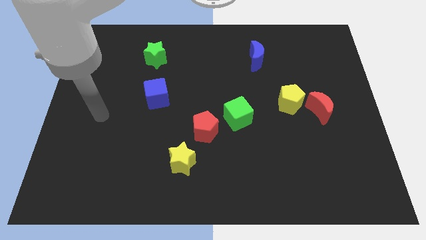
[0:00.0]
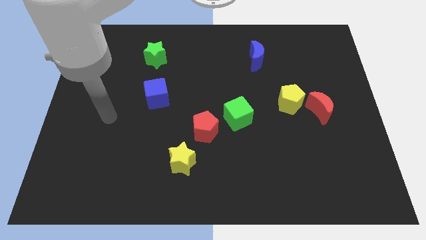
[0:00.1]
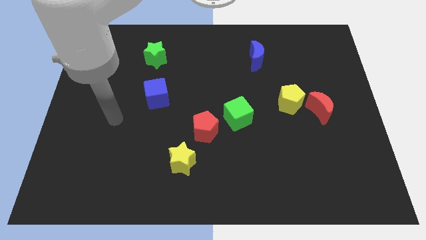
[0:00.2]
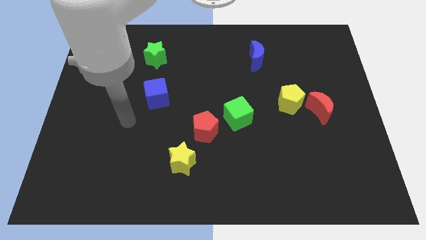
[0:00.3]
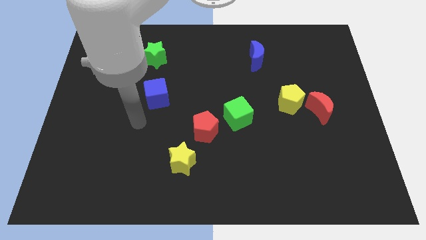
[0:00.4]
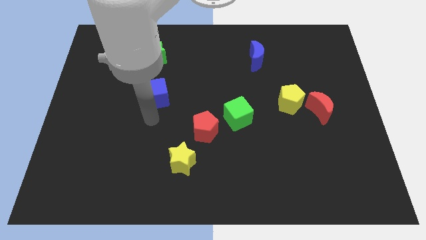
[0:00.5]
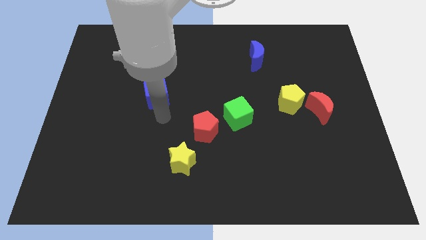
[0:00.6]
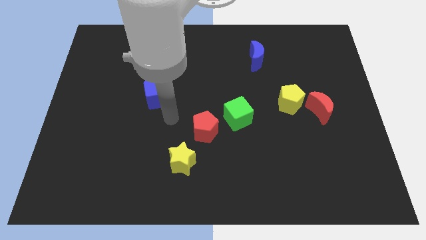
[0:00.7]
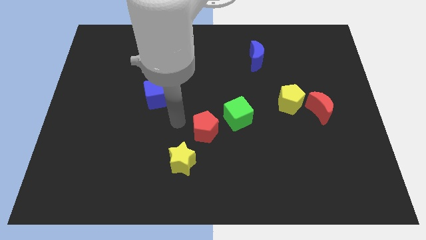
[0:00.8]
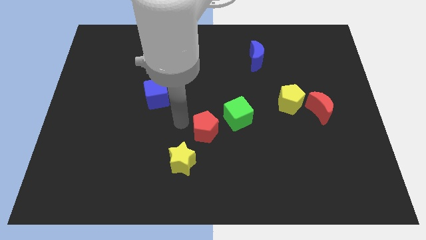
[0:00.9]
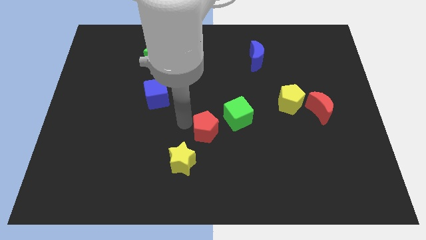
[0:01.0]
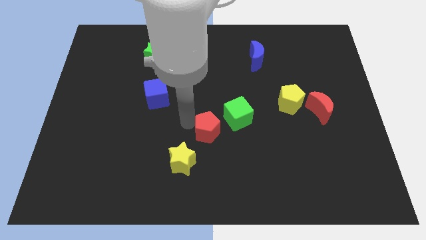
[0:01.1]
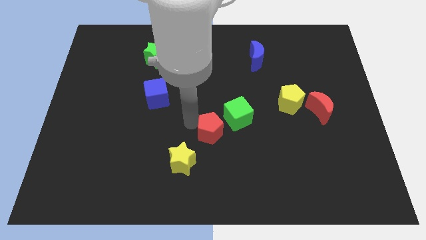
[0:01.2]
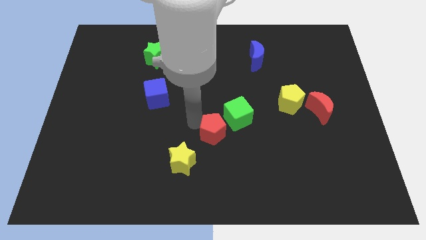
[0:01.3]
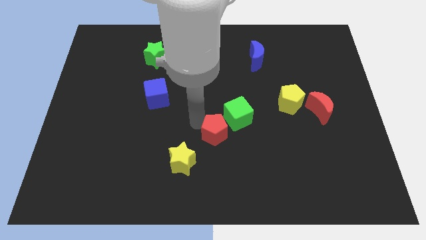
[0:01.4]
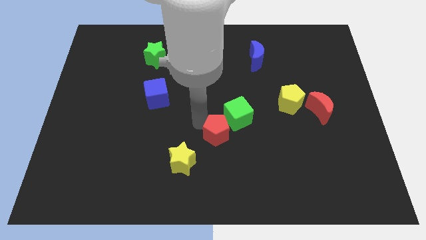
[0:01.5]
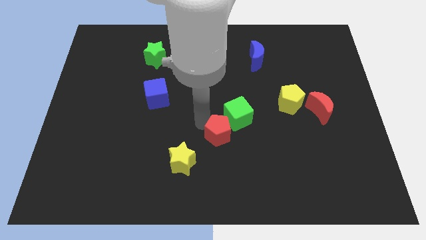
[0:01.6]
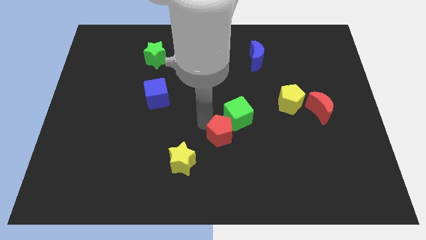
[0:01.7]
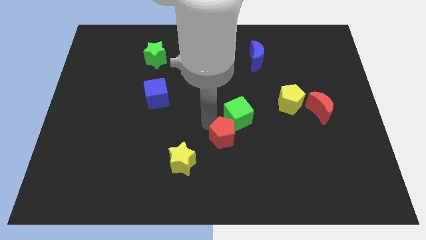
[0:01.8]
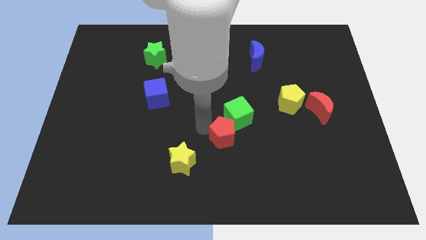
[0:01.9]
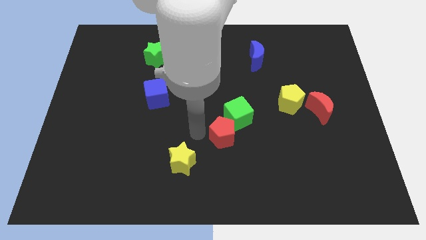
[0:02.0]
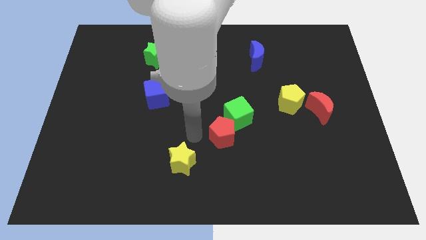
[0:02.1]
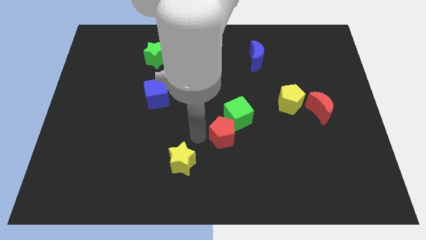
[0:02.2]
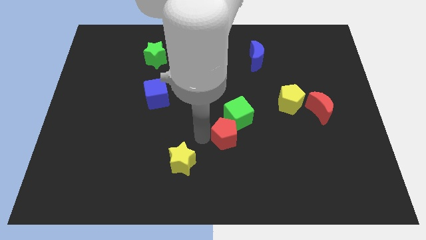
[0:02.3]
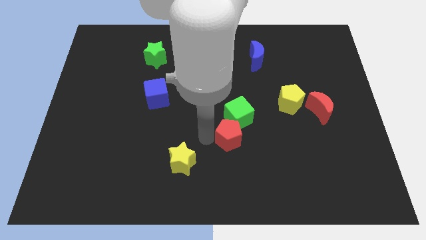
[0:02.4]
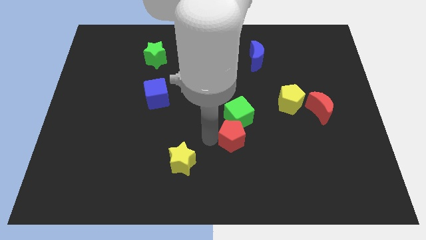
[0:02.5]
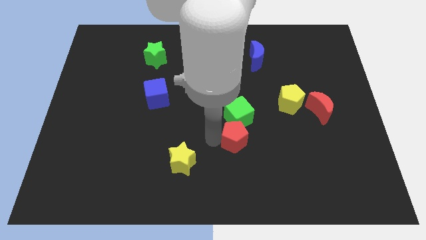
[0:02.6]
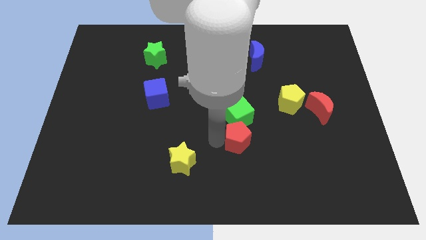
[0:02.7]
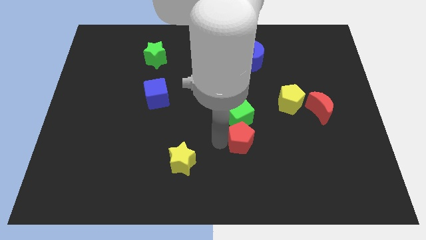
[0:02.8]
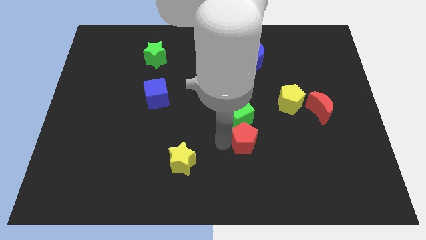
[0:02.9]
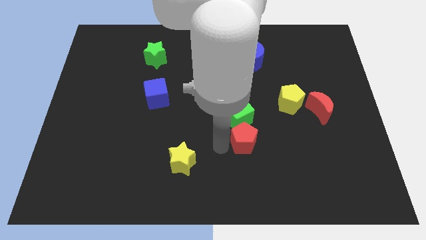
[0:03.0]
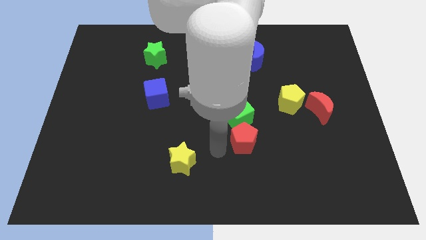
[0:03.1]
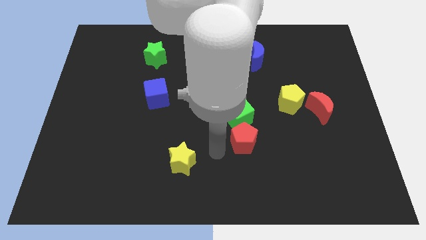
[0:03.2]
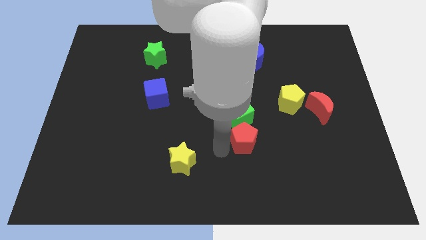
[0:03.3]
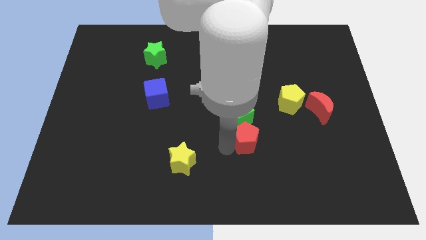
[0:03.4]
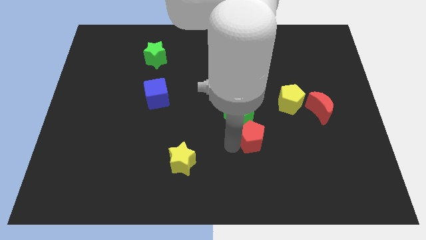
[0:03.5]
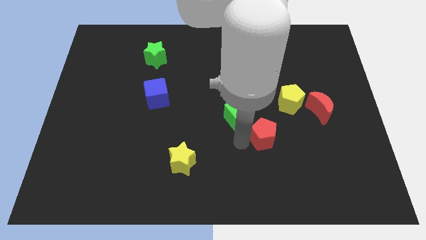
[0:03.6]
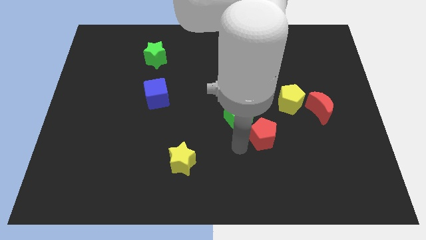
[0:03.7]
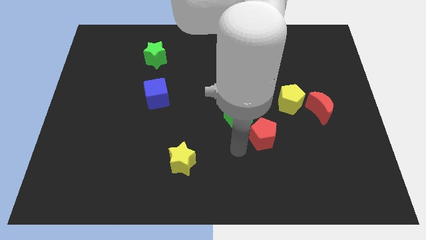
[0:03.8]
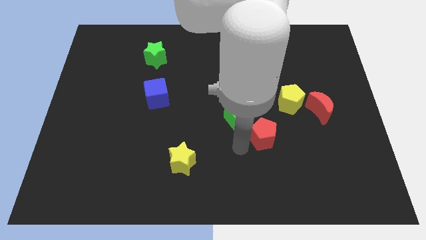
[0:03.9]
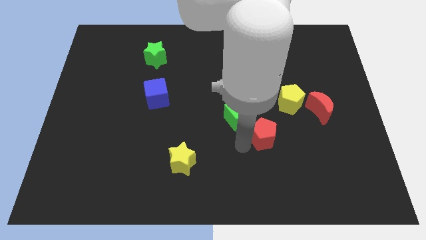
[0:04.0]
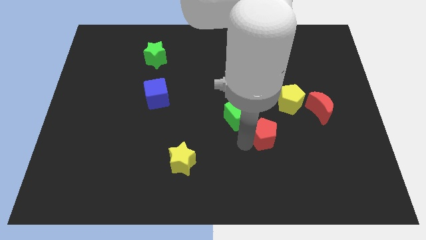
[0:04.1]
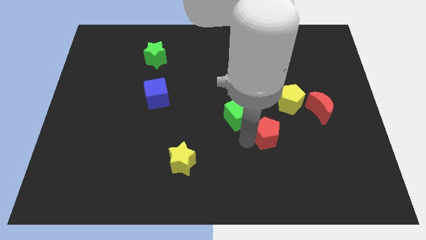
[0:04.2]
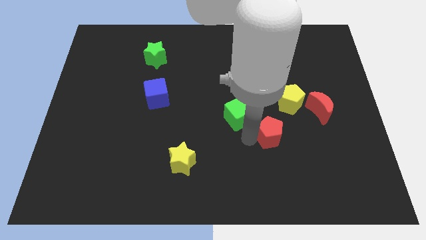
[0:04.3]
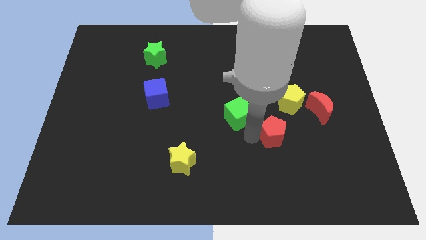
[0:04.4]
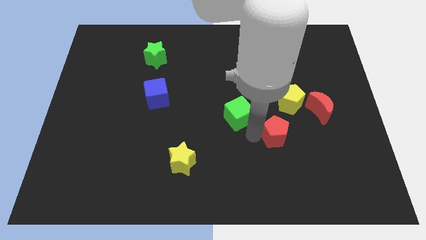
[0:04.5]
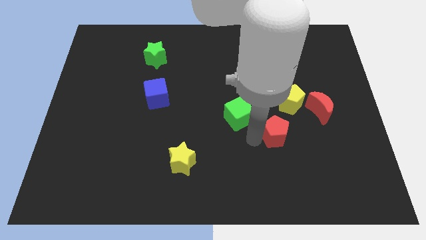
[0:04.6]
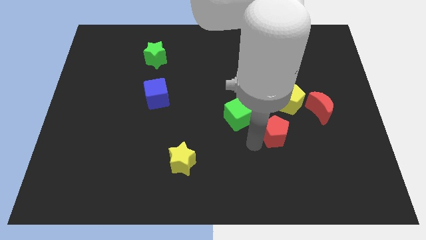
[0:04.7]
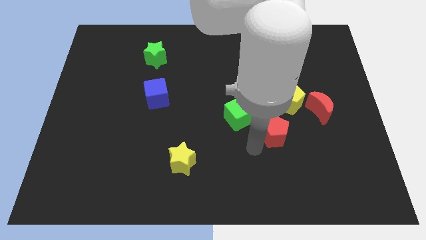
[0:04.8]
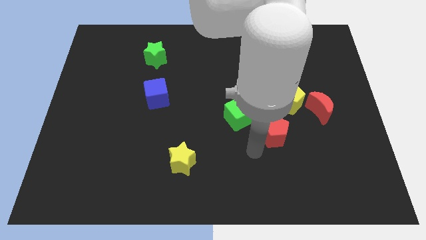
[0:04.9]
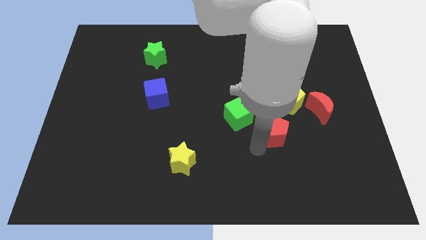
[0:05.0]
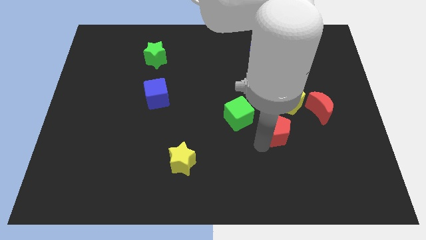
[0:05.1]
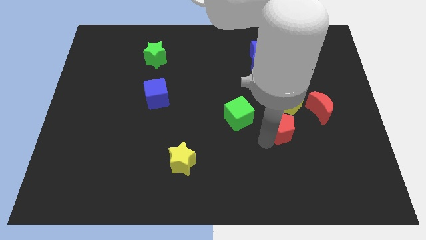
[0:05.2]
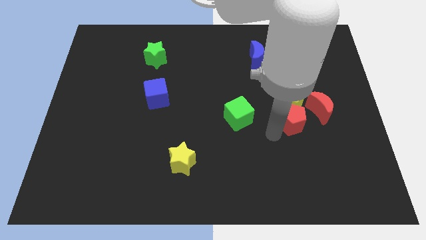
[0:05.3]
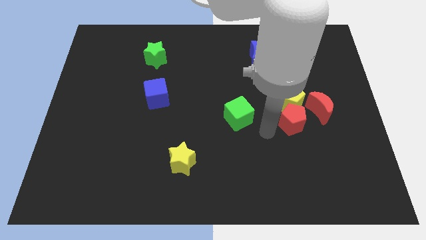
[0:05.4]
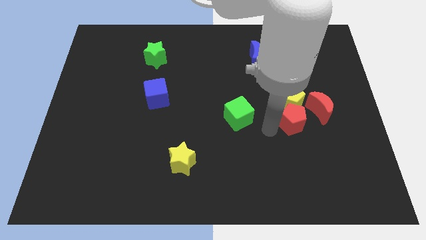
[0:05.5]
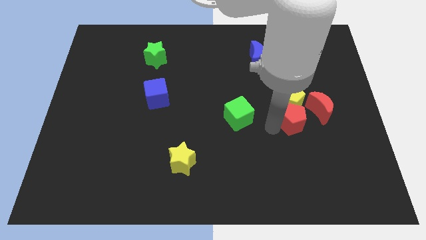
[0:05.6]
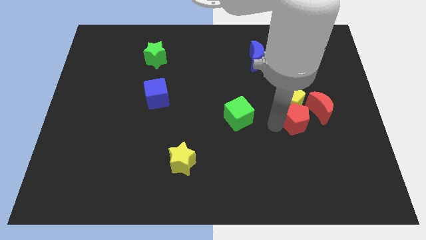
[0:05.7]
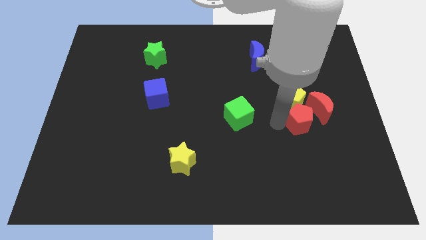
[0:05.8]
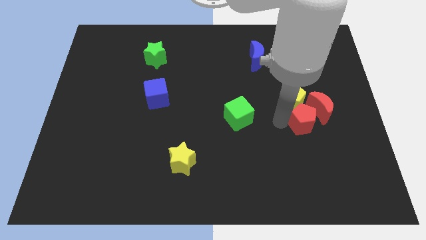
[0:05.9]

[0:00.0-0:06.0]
move the red pentagon next to the red moon

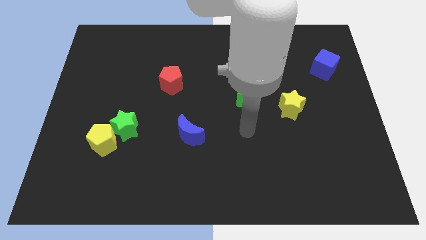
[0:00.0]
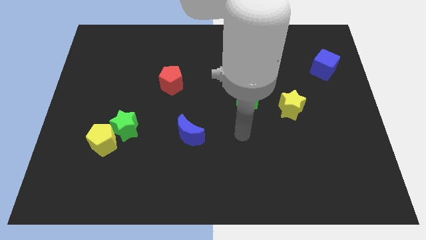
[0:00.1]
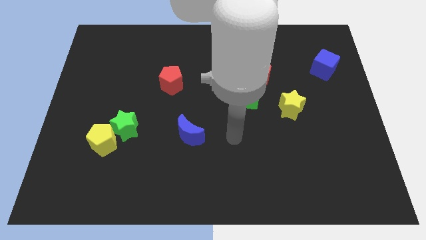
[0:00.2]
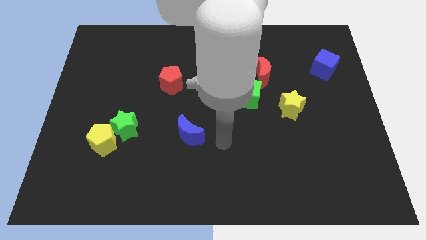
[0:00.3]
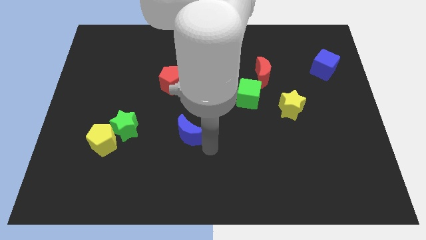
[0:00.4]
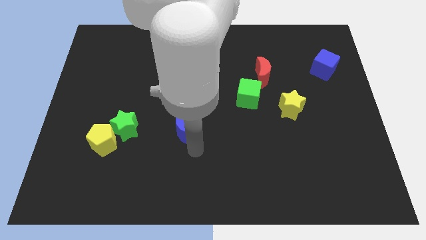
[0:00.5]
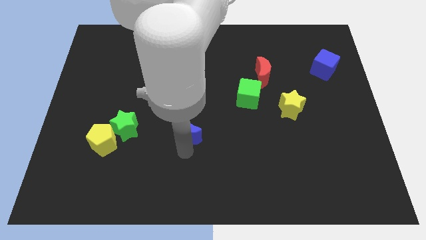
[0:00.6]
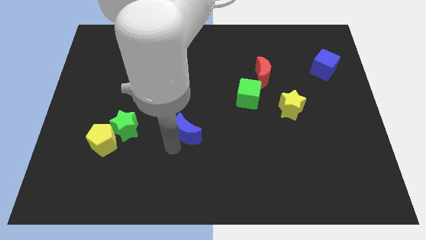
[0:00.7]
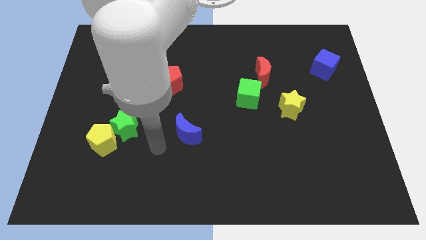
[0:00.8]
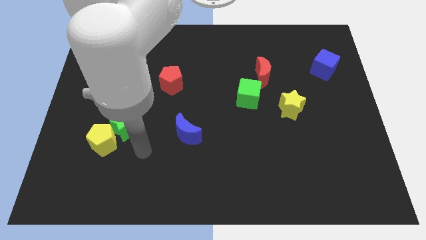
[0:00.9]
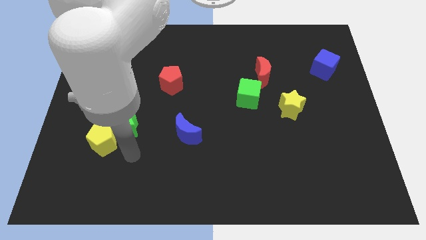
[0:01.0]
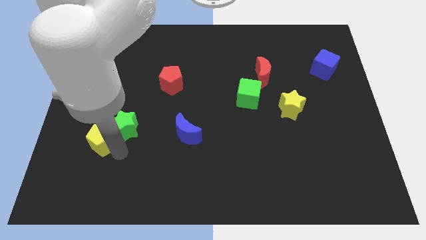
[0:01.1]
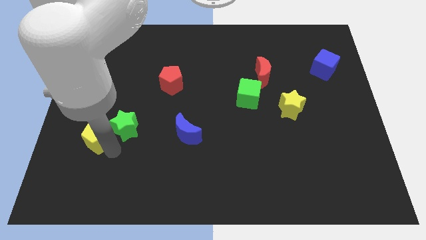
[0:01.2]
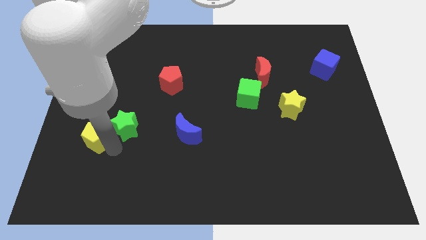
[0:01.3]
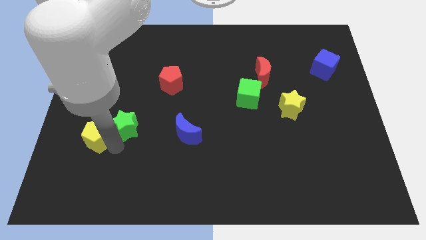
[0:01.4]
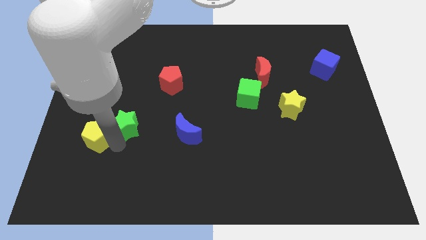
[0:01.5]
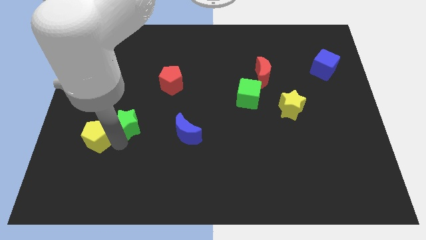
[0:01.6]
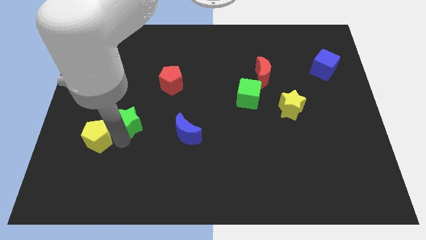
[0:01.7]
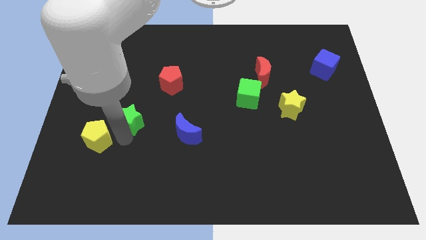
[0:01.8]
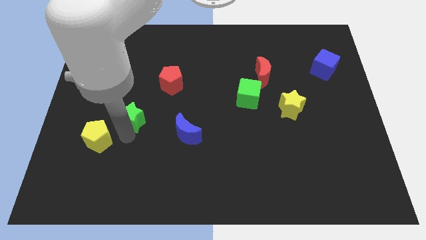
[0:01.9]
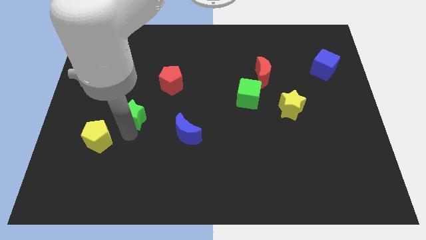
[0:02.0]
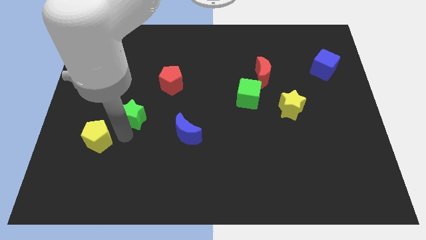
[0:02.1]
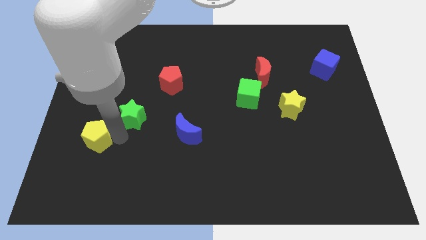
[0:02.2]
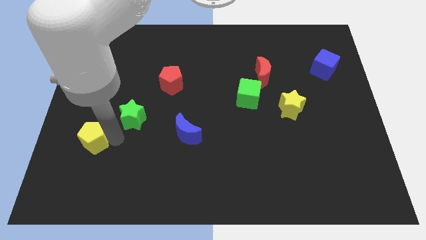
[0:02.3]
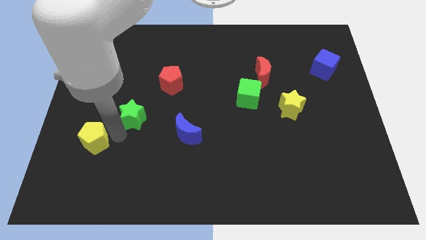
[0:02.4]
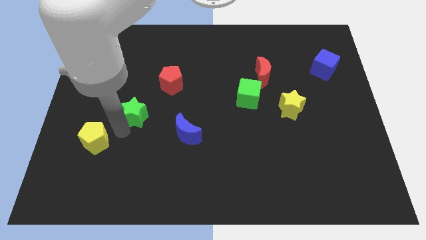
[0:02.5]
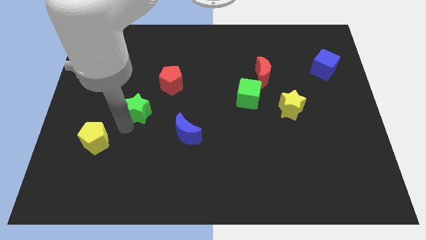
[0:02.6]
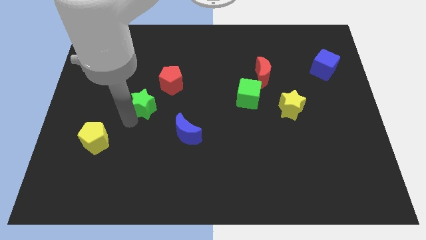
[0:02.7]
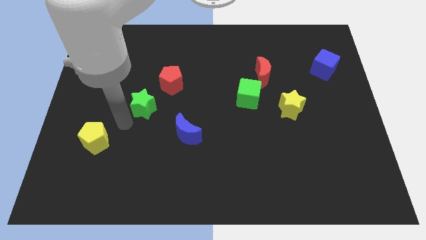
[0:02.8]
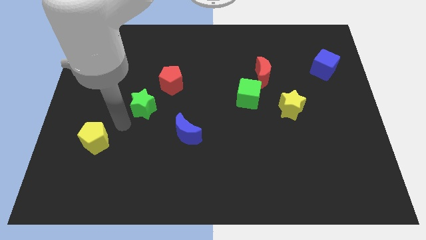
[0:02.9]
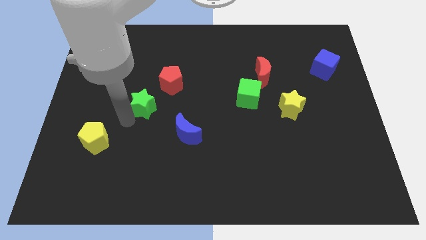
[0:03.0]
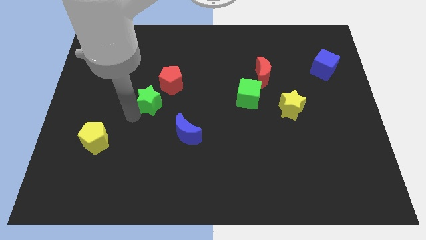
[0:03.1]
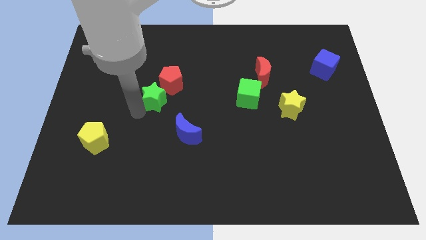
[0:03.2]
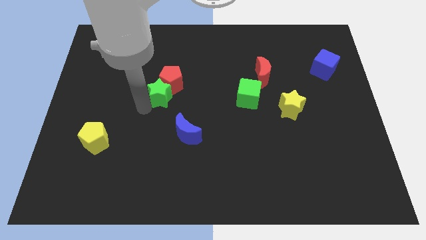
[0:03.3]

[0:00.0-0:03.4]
put the green star next to the red pentagon
